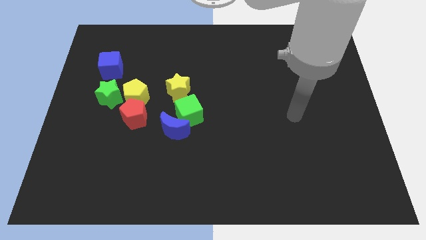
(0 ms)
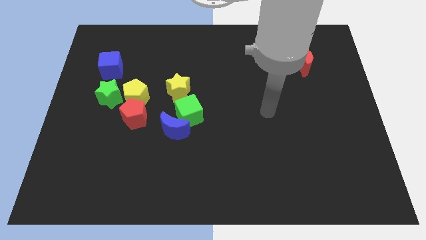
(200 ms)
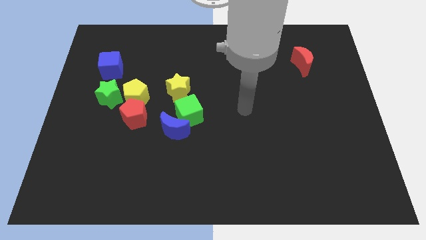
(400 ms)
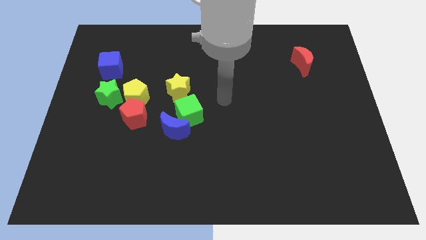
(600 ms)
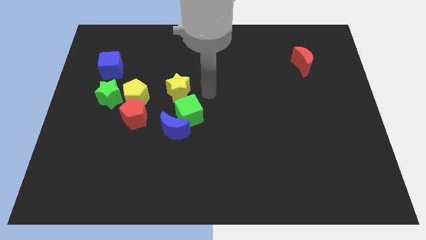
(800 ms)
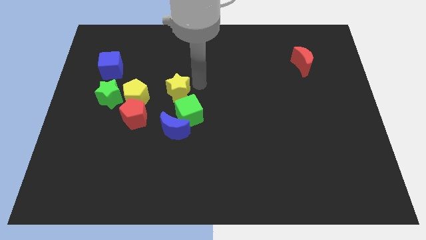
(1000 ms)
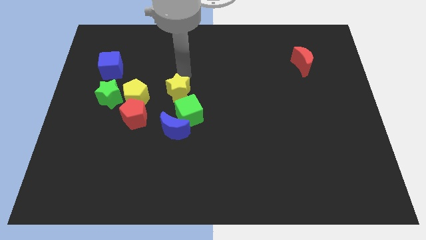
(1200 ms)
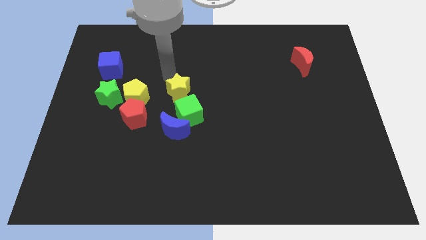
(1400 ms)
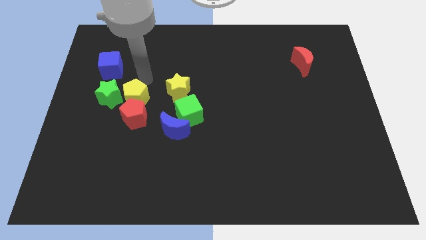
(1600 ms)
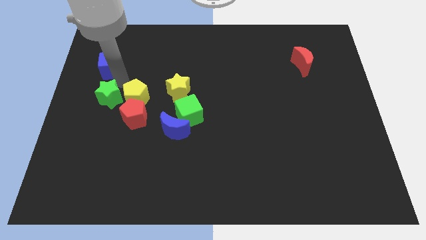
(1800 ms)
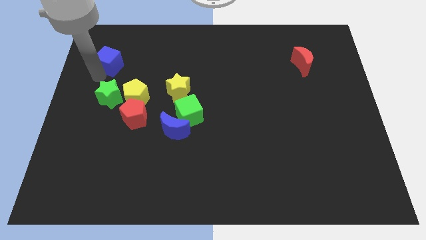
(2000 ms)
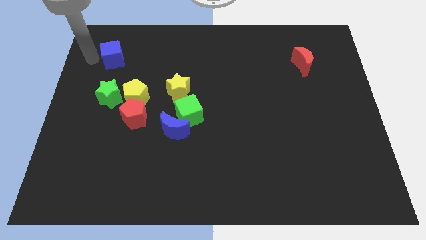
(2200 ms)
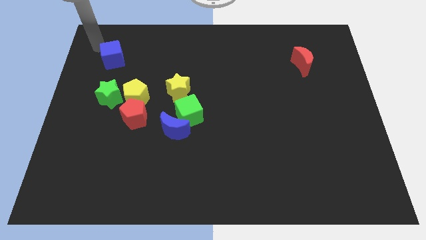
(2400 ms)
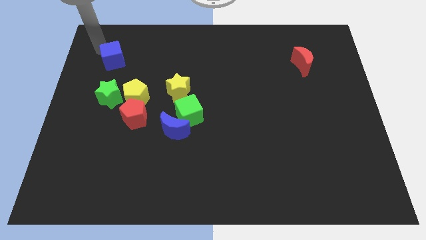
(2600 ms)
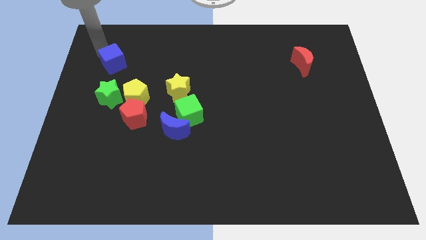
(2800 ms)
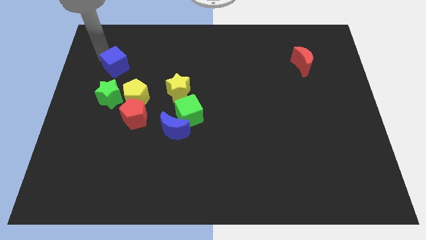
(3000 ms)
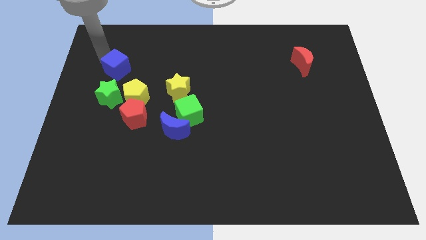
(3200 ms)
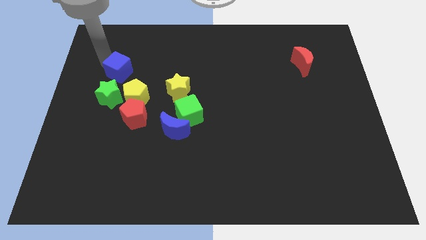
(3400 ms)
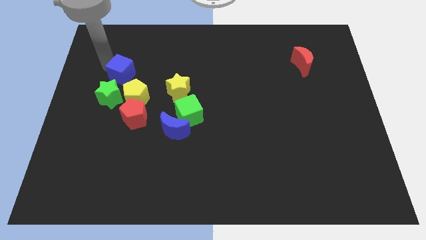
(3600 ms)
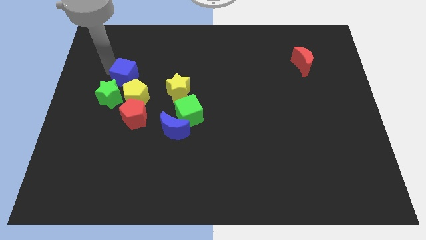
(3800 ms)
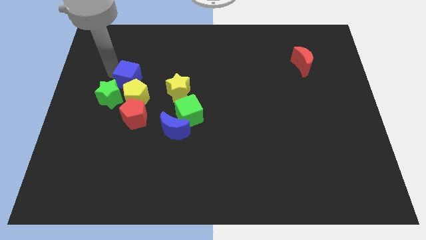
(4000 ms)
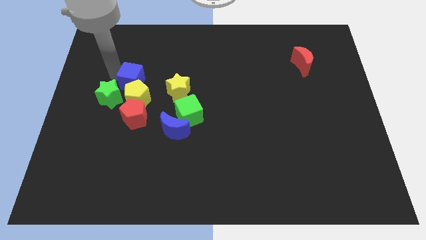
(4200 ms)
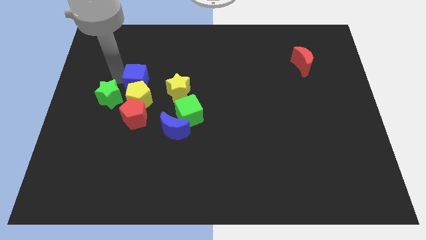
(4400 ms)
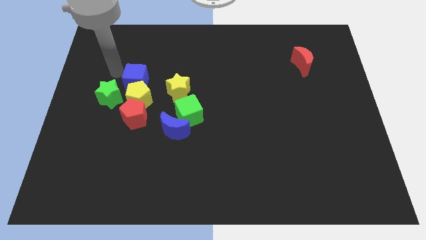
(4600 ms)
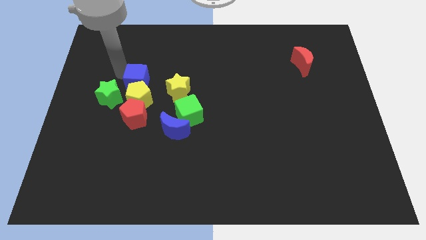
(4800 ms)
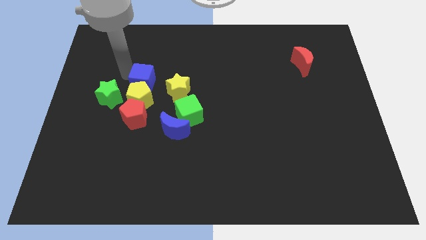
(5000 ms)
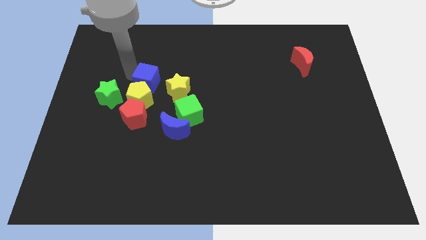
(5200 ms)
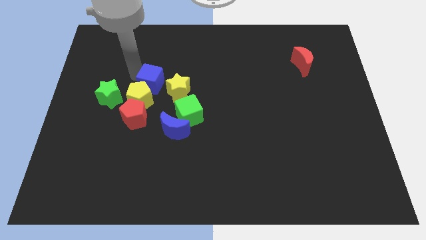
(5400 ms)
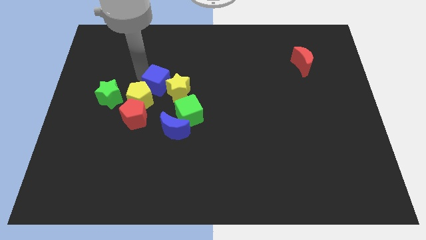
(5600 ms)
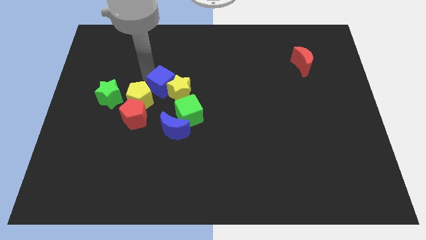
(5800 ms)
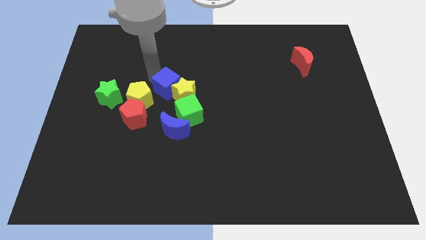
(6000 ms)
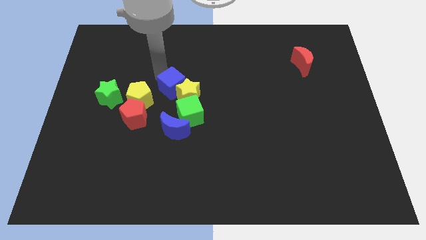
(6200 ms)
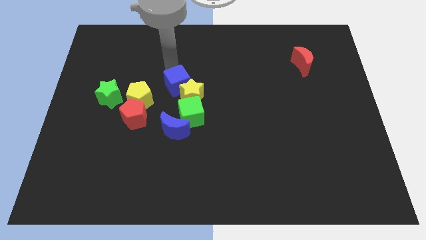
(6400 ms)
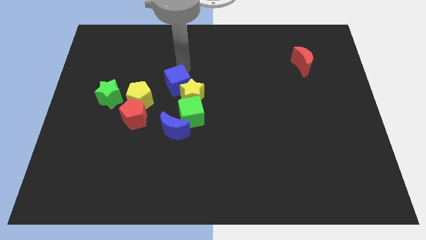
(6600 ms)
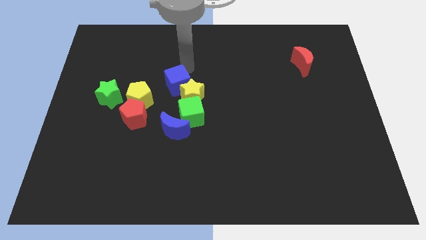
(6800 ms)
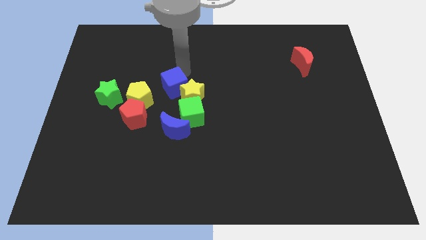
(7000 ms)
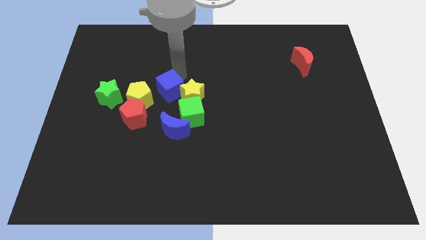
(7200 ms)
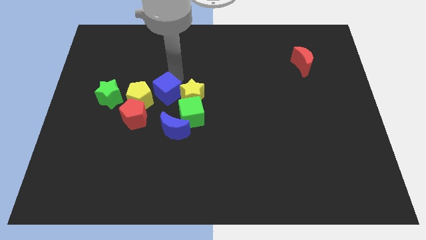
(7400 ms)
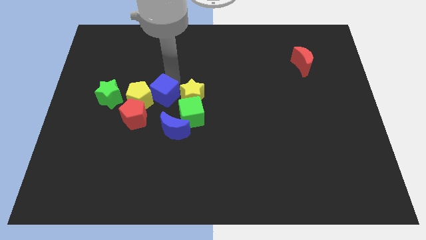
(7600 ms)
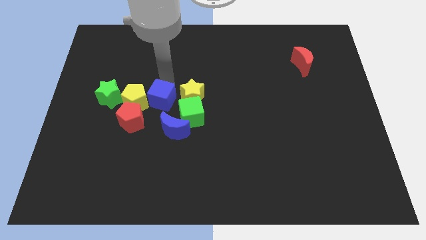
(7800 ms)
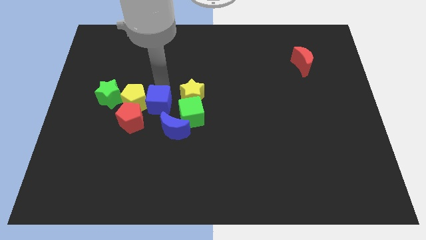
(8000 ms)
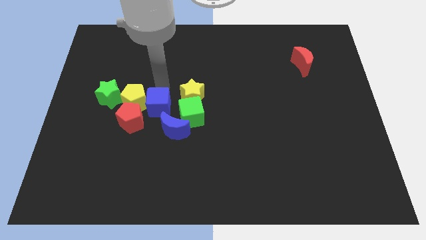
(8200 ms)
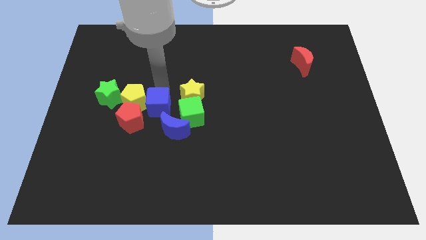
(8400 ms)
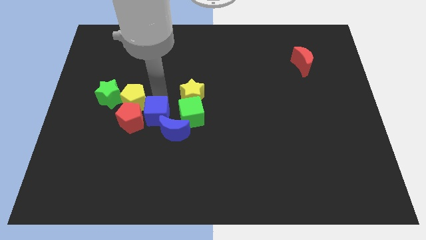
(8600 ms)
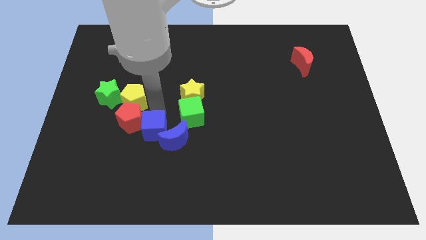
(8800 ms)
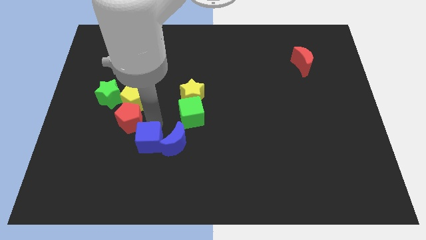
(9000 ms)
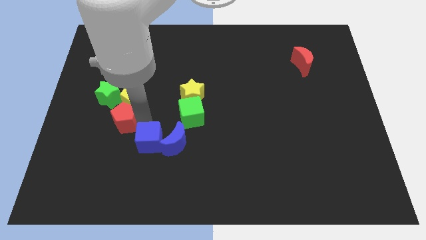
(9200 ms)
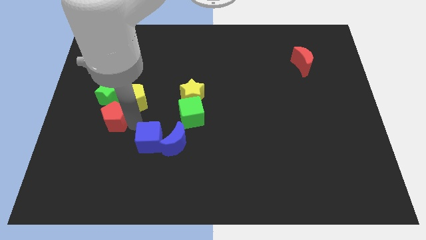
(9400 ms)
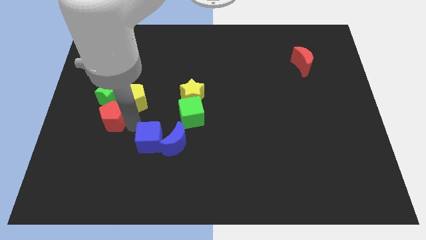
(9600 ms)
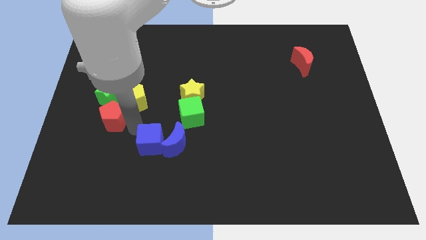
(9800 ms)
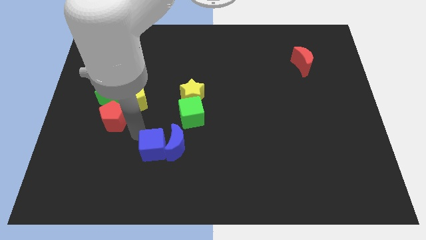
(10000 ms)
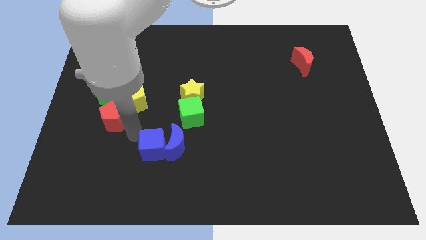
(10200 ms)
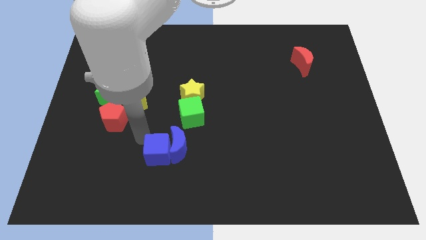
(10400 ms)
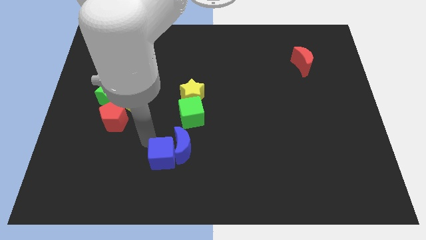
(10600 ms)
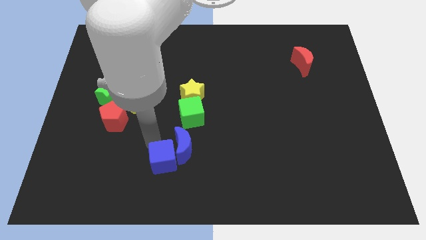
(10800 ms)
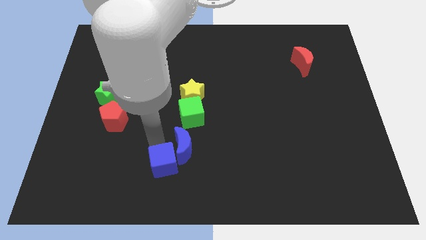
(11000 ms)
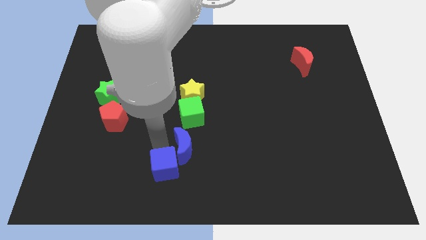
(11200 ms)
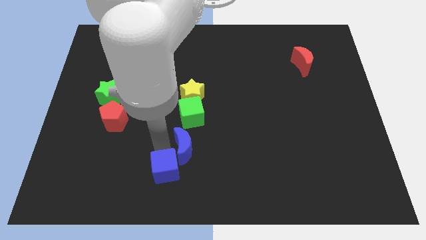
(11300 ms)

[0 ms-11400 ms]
slide the blue cube to the bottom side
